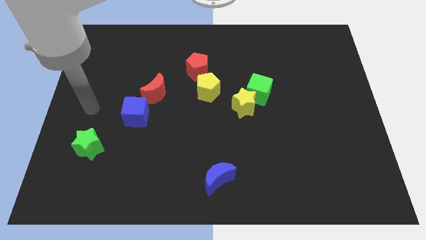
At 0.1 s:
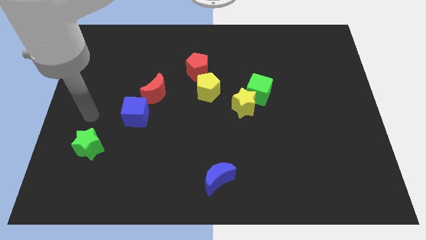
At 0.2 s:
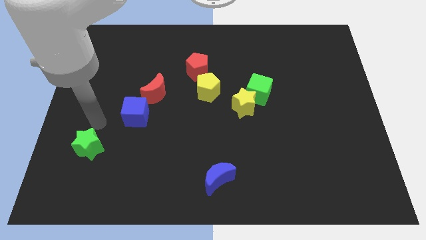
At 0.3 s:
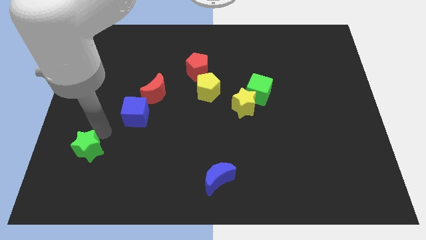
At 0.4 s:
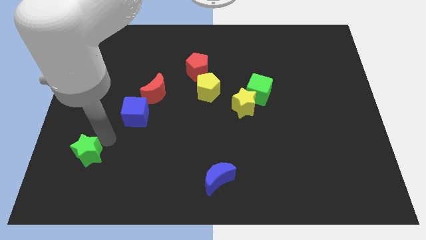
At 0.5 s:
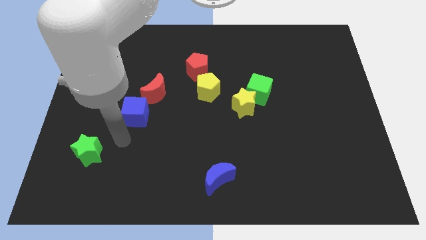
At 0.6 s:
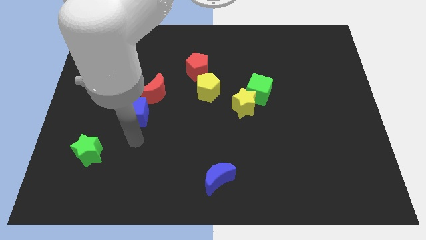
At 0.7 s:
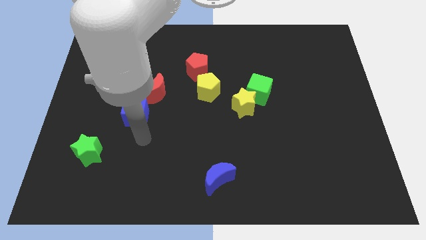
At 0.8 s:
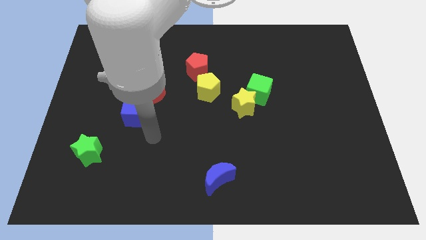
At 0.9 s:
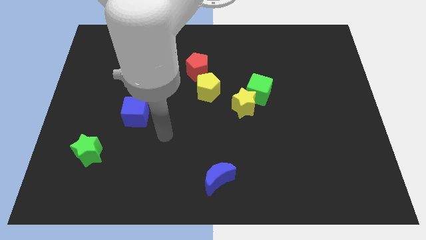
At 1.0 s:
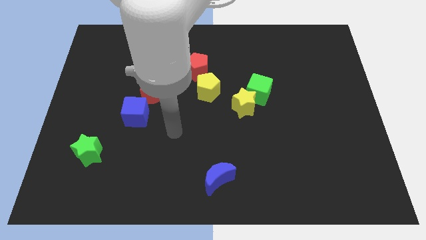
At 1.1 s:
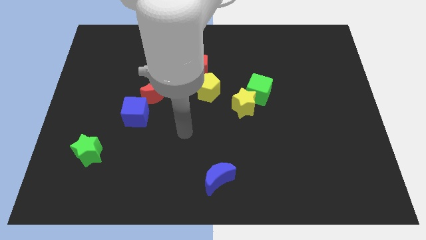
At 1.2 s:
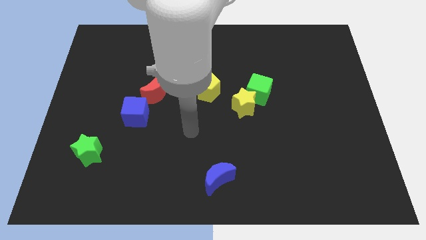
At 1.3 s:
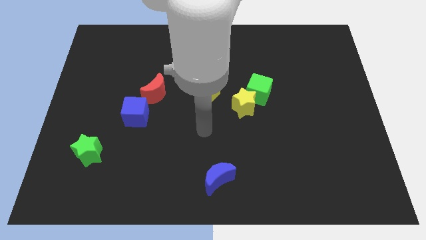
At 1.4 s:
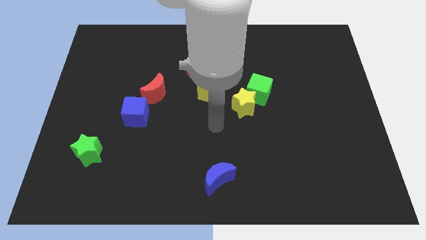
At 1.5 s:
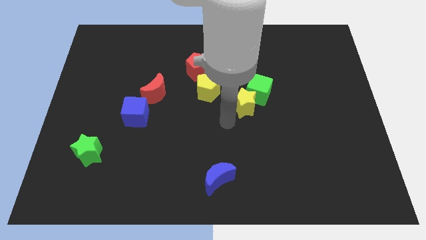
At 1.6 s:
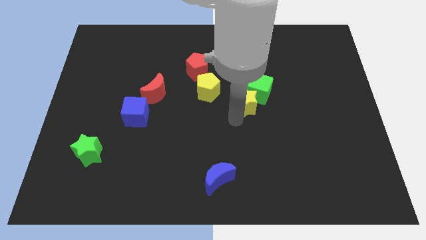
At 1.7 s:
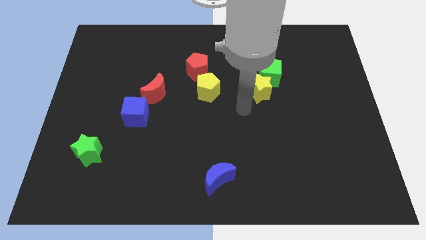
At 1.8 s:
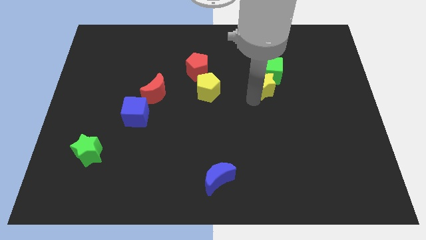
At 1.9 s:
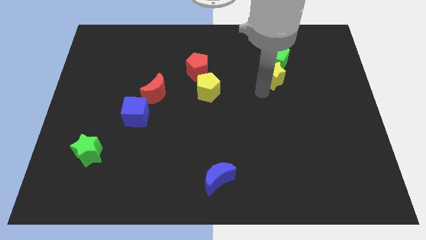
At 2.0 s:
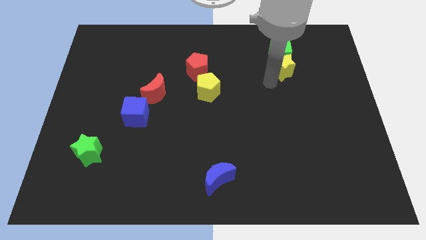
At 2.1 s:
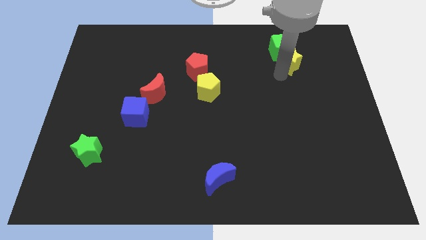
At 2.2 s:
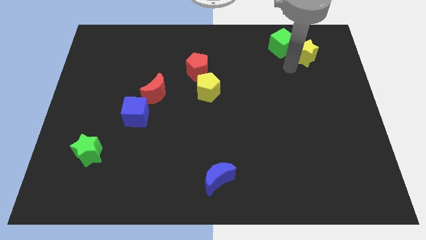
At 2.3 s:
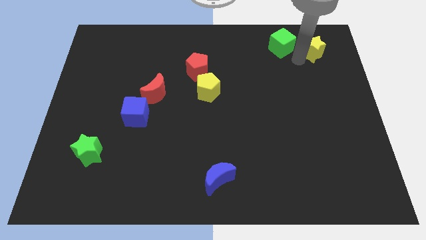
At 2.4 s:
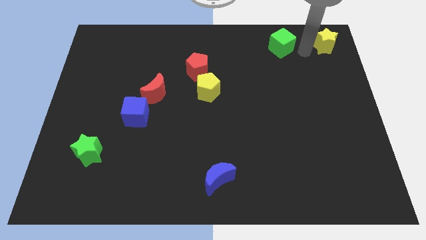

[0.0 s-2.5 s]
move the green cube away from the yellow star

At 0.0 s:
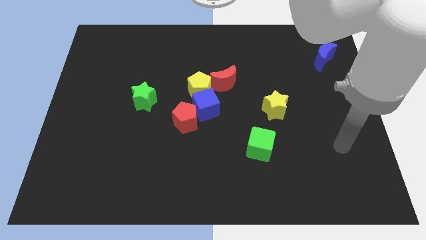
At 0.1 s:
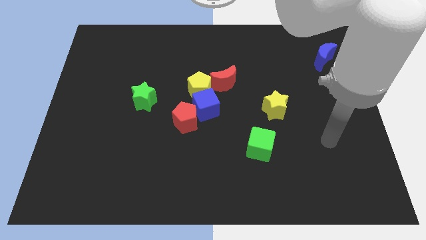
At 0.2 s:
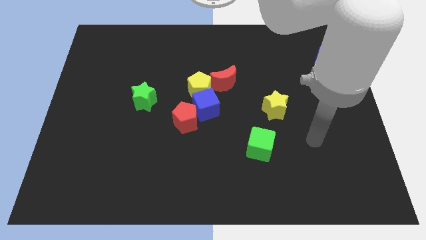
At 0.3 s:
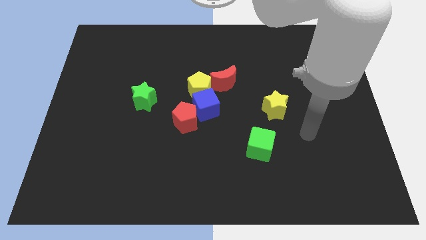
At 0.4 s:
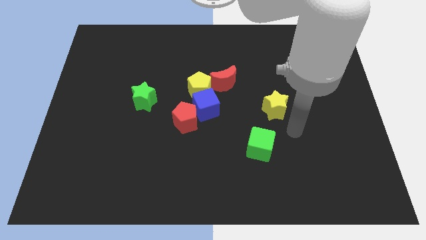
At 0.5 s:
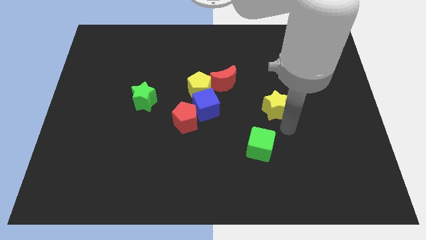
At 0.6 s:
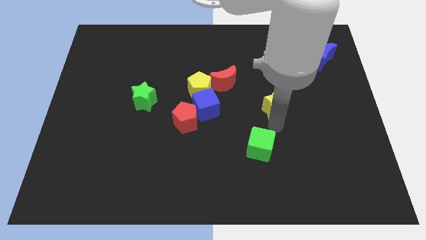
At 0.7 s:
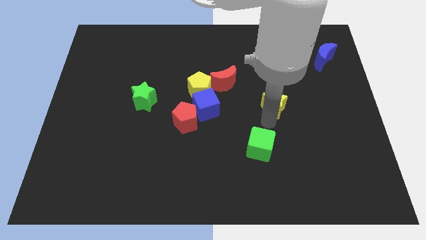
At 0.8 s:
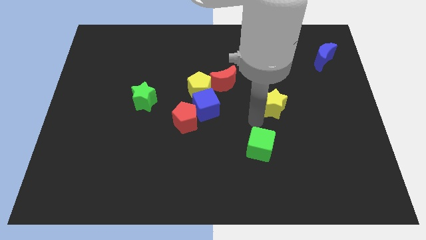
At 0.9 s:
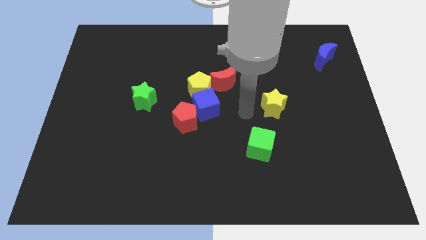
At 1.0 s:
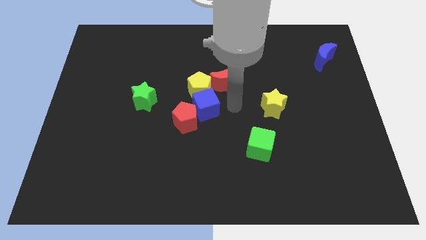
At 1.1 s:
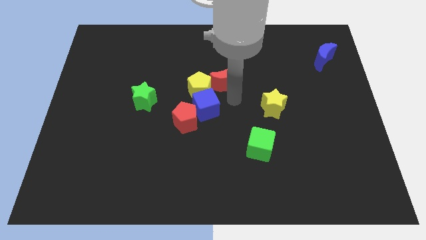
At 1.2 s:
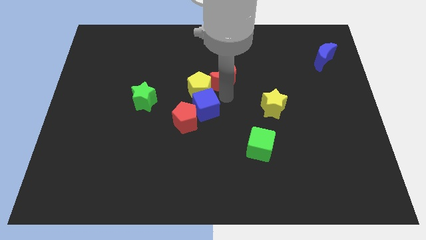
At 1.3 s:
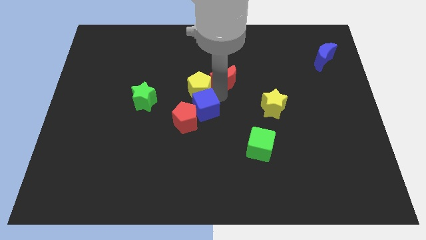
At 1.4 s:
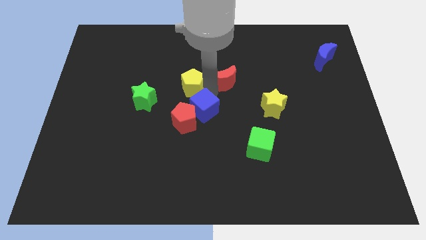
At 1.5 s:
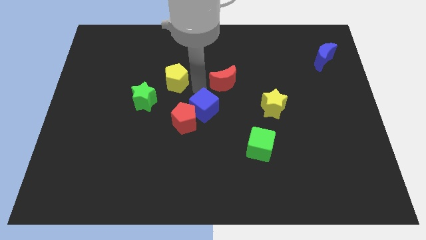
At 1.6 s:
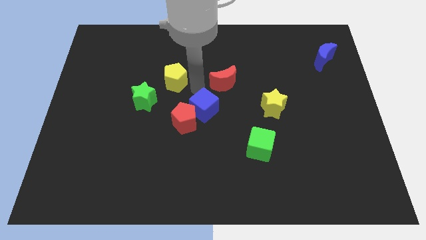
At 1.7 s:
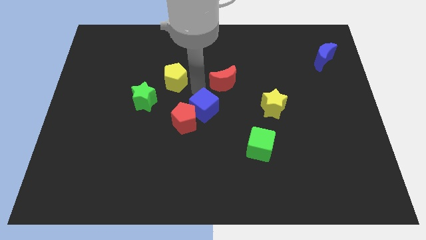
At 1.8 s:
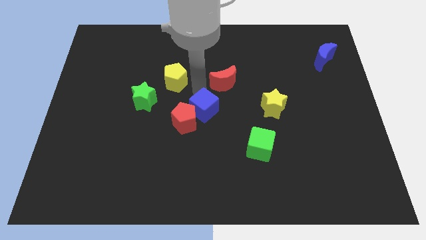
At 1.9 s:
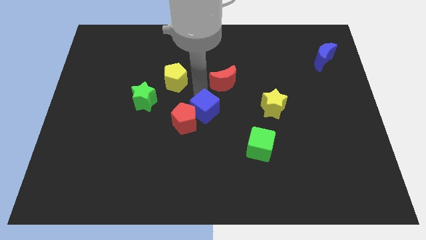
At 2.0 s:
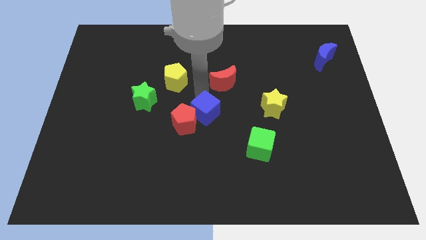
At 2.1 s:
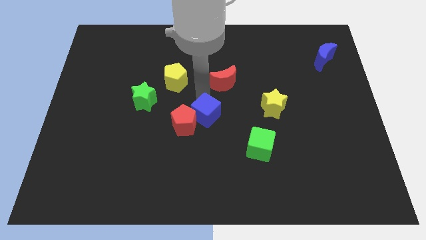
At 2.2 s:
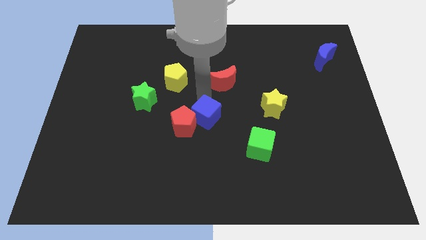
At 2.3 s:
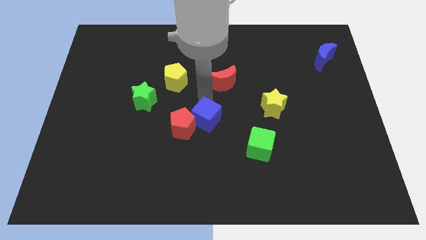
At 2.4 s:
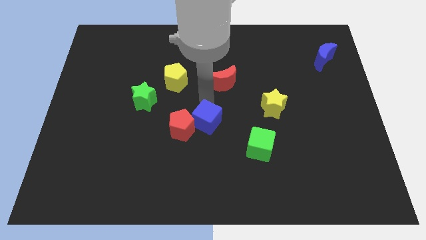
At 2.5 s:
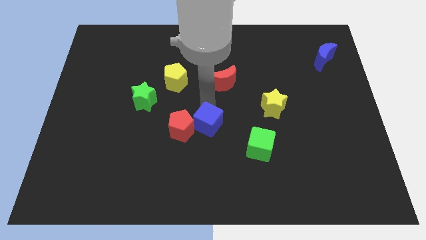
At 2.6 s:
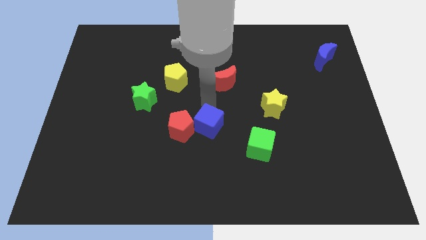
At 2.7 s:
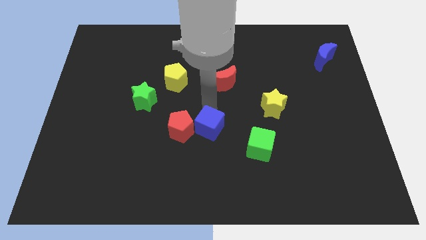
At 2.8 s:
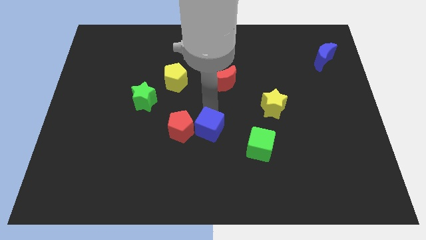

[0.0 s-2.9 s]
move the blue cube away from the group

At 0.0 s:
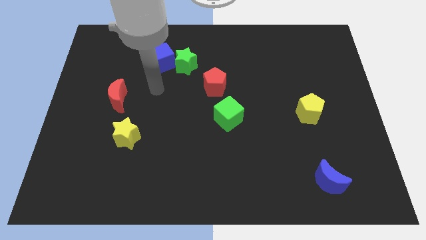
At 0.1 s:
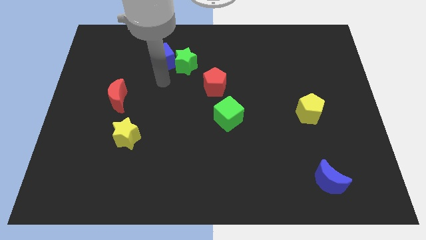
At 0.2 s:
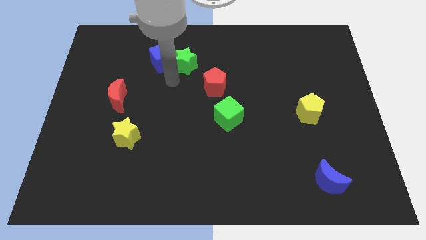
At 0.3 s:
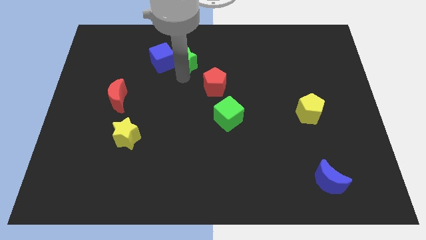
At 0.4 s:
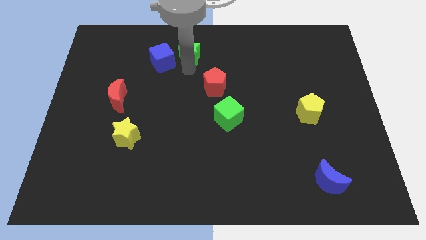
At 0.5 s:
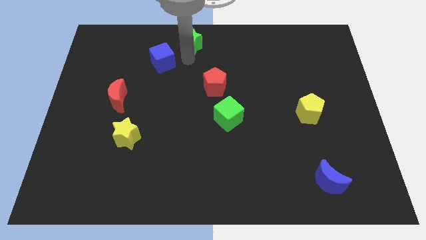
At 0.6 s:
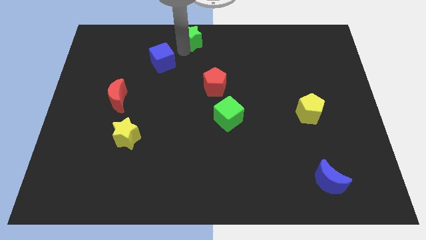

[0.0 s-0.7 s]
move the blue cube away from the green star

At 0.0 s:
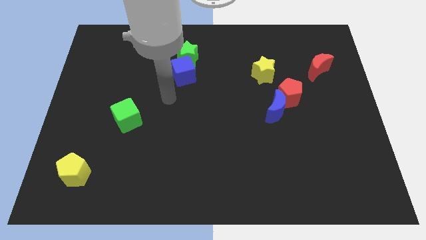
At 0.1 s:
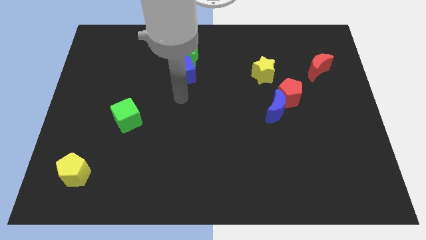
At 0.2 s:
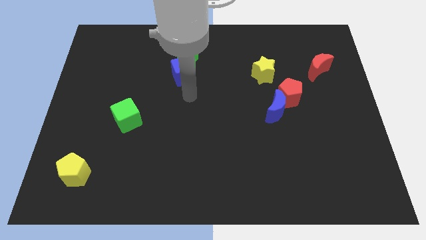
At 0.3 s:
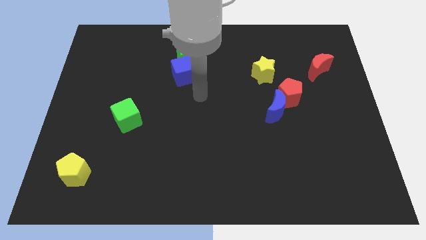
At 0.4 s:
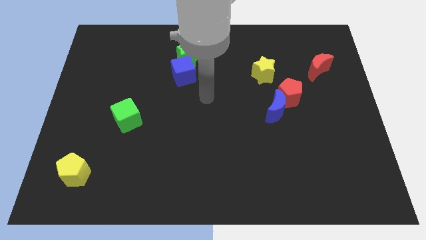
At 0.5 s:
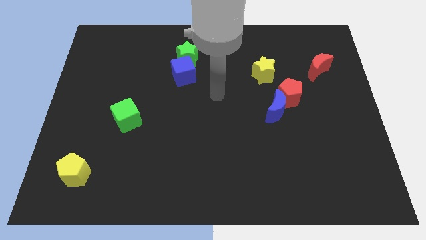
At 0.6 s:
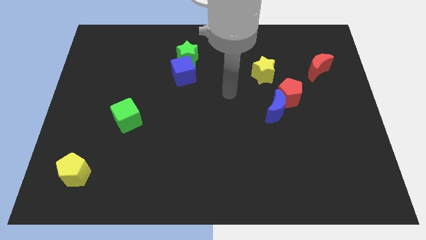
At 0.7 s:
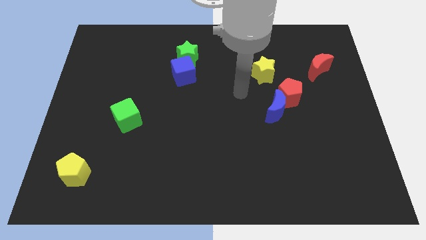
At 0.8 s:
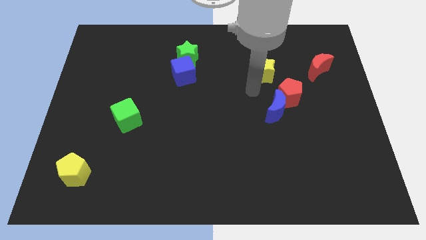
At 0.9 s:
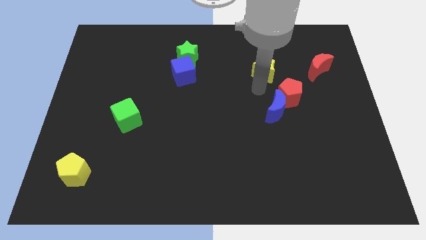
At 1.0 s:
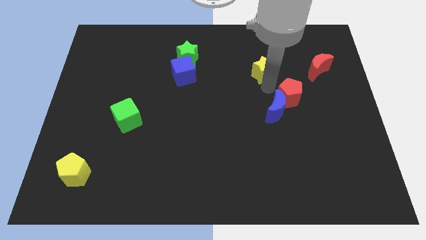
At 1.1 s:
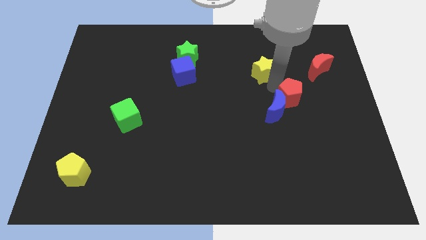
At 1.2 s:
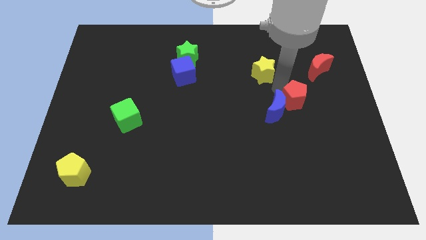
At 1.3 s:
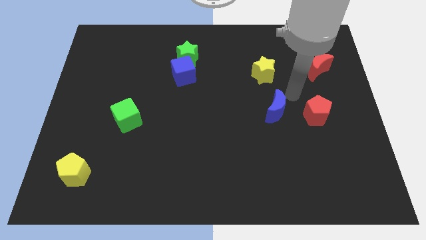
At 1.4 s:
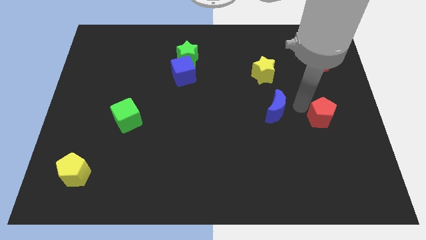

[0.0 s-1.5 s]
separate the blue moon from the red pentagon

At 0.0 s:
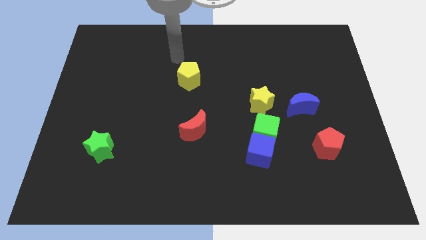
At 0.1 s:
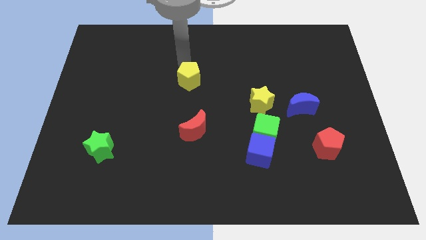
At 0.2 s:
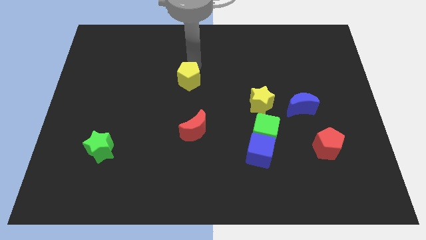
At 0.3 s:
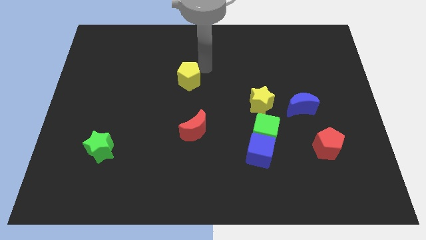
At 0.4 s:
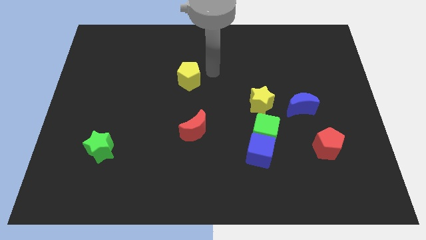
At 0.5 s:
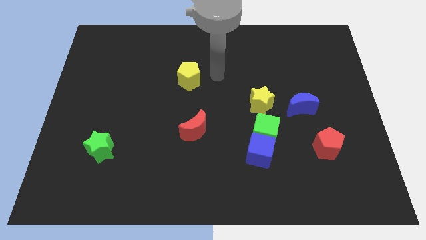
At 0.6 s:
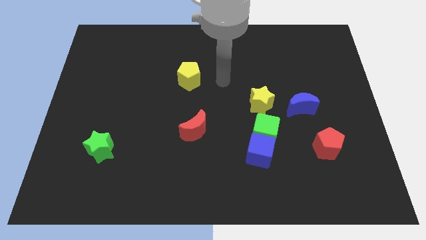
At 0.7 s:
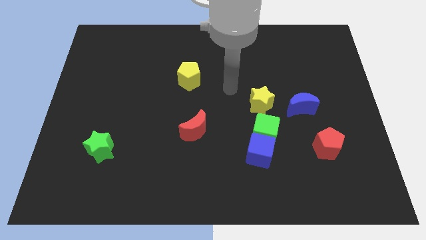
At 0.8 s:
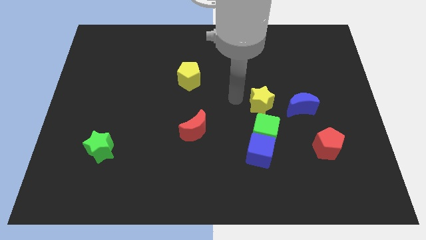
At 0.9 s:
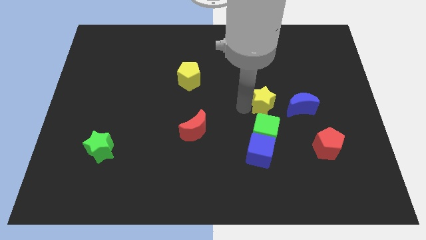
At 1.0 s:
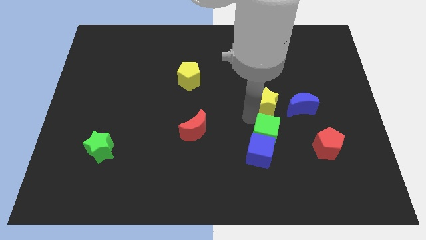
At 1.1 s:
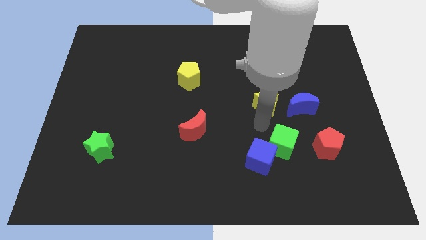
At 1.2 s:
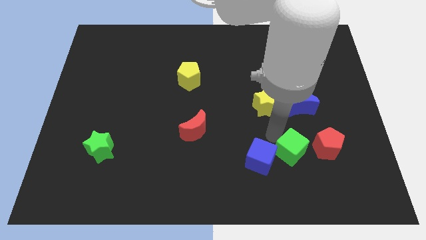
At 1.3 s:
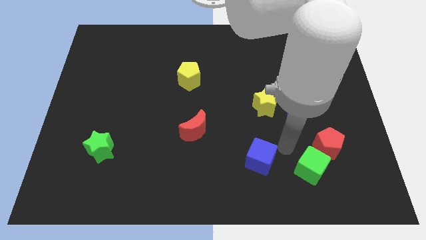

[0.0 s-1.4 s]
separate the blue cube from the green cube

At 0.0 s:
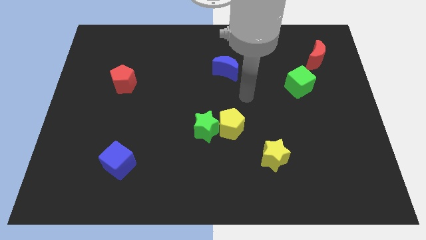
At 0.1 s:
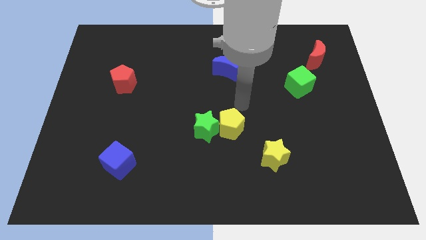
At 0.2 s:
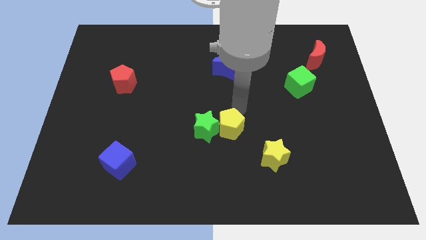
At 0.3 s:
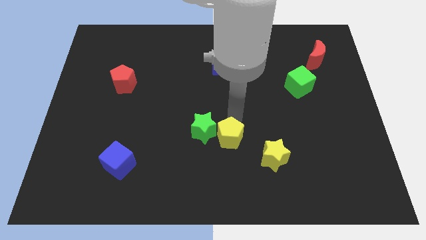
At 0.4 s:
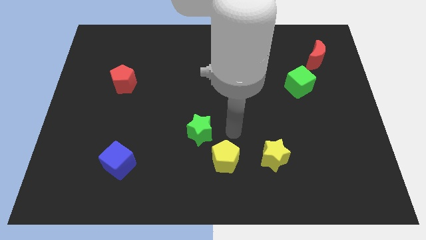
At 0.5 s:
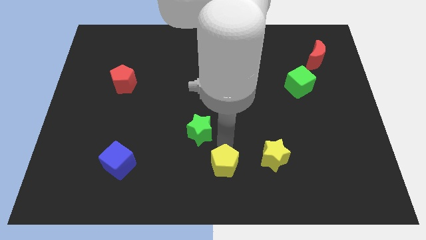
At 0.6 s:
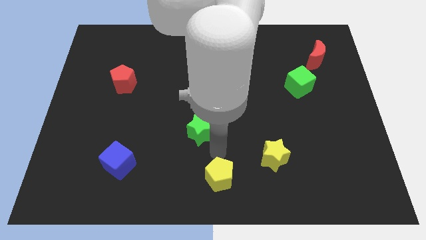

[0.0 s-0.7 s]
pull the green star apart from the yellow pentagon
